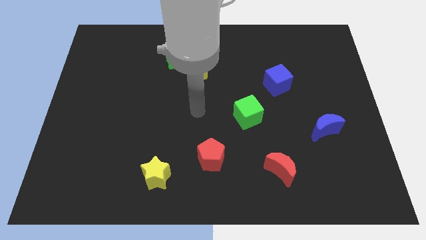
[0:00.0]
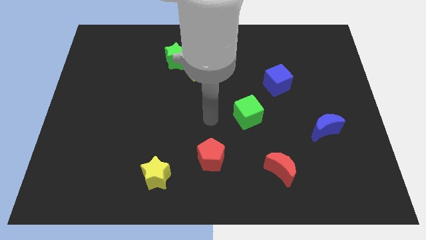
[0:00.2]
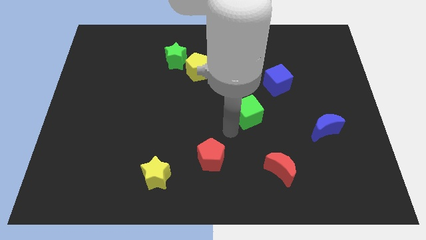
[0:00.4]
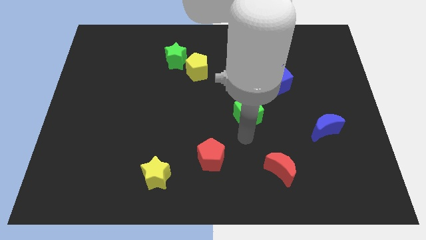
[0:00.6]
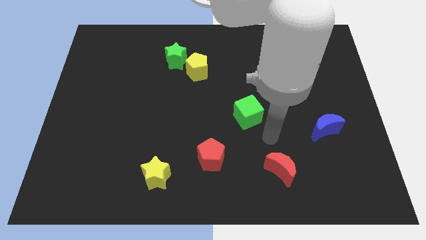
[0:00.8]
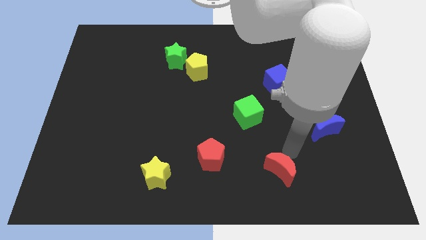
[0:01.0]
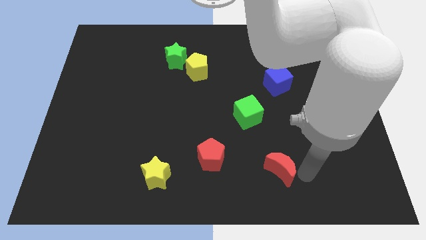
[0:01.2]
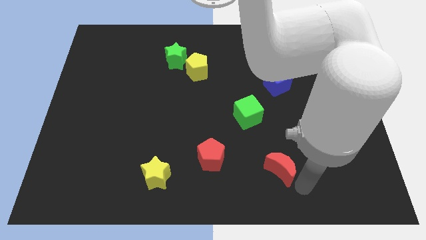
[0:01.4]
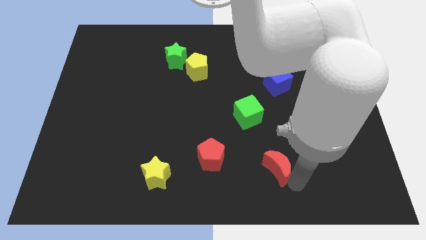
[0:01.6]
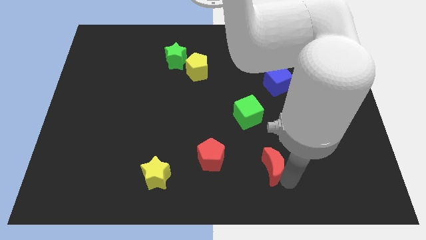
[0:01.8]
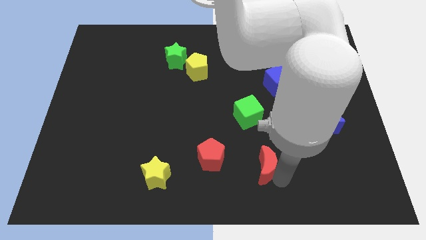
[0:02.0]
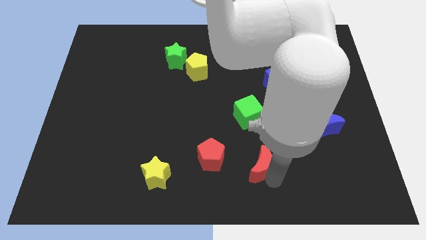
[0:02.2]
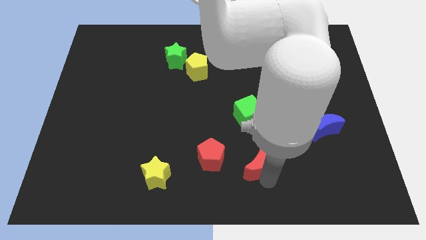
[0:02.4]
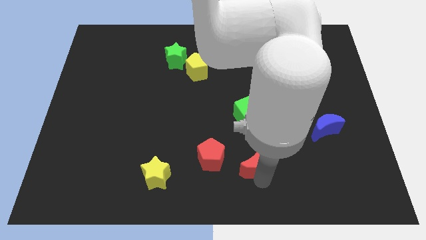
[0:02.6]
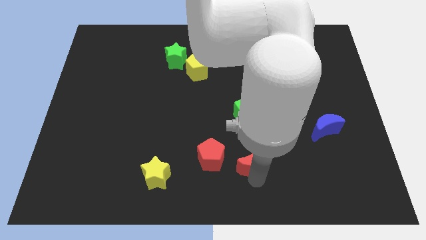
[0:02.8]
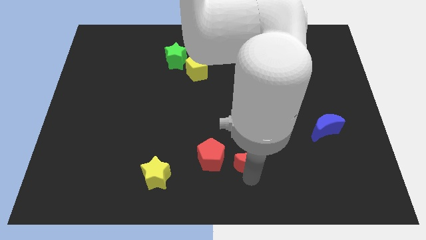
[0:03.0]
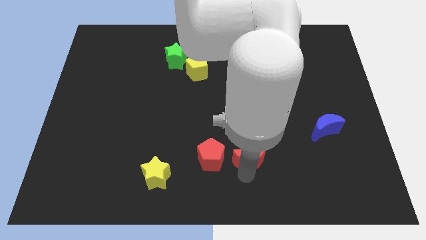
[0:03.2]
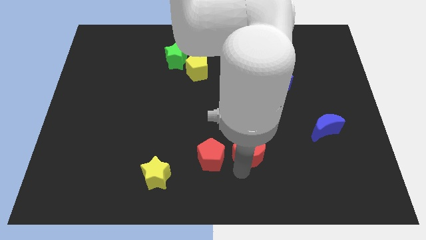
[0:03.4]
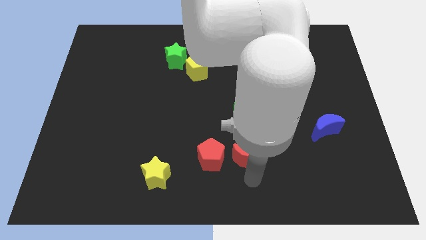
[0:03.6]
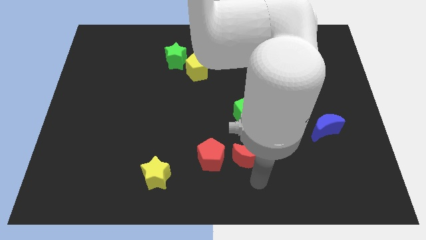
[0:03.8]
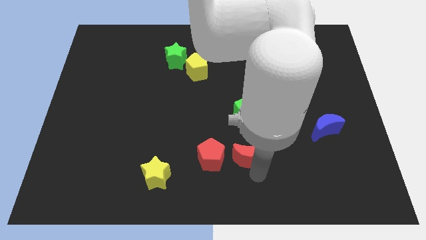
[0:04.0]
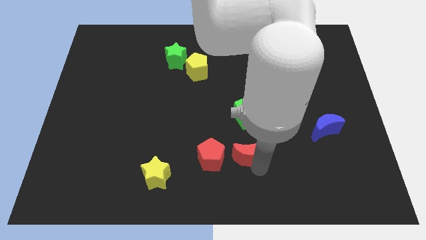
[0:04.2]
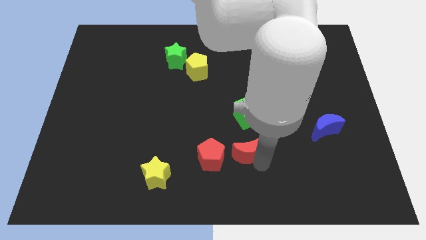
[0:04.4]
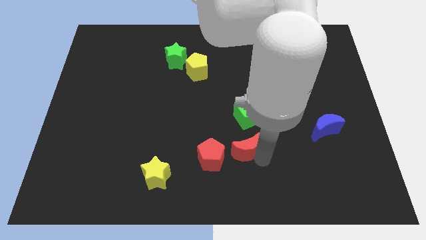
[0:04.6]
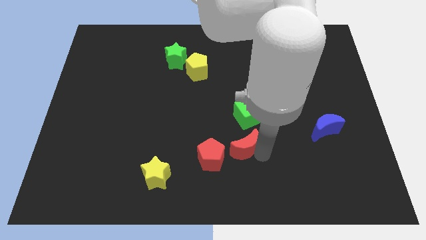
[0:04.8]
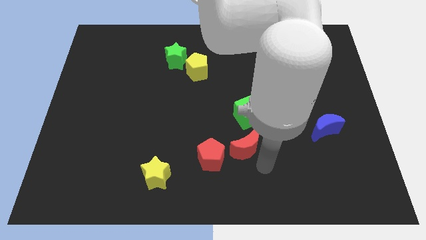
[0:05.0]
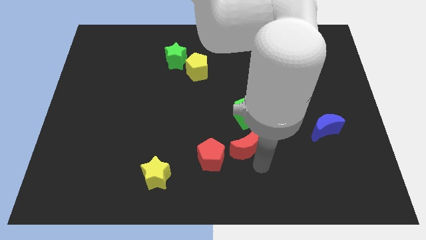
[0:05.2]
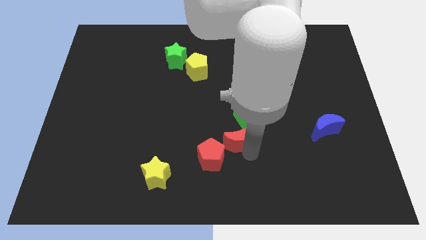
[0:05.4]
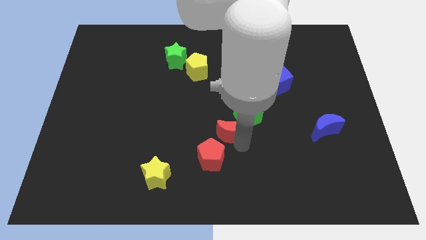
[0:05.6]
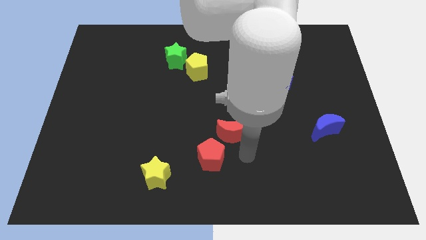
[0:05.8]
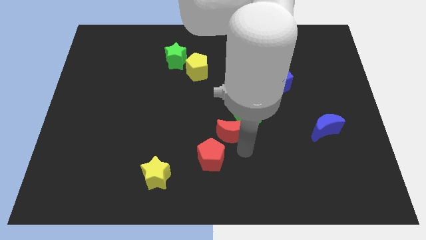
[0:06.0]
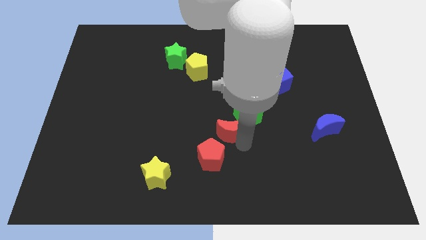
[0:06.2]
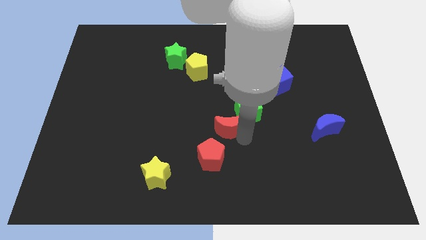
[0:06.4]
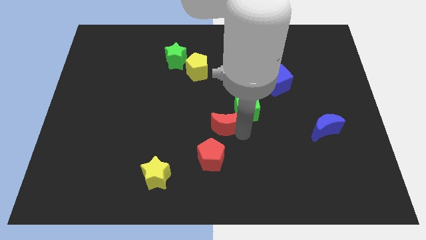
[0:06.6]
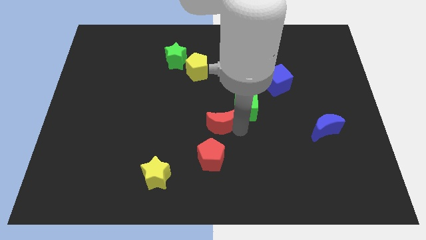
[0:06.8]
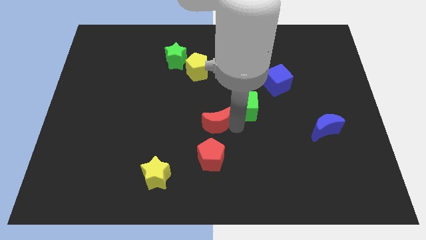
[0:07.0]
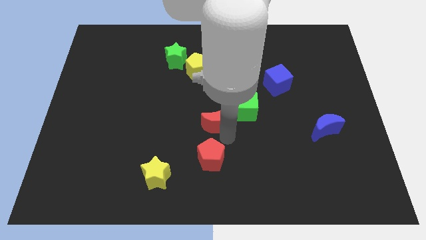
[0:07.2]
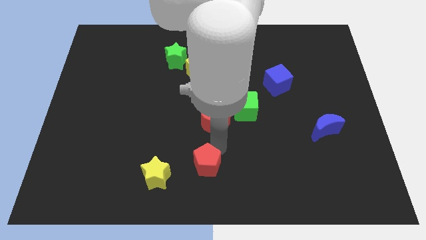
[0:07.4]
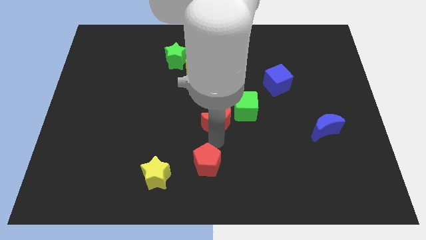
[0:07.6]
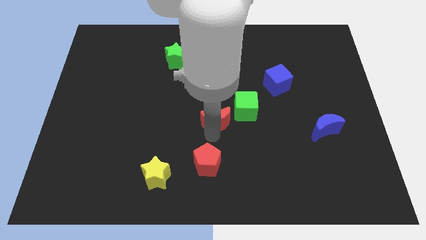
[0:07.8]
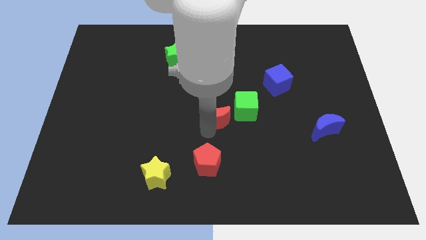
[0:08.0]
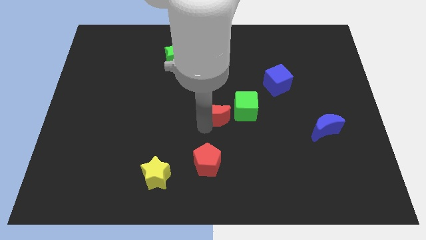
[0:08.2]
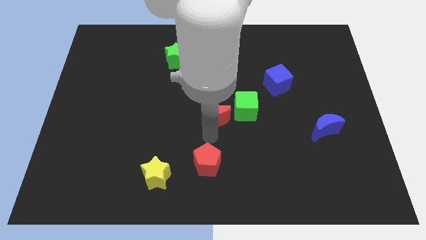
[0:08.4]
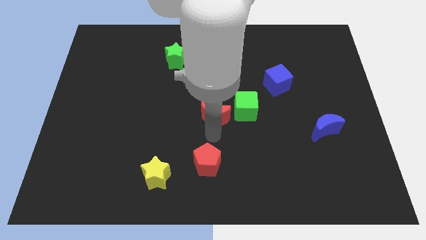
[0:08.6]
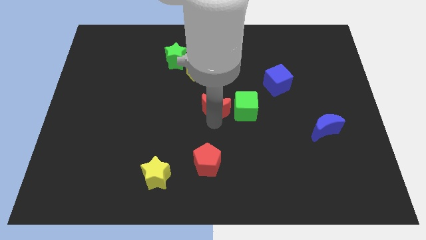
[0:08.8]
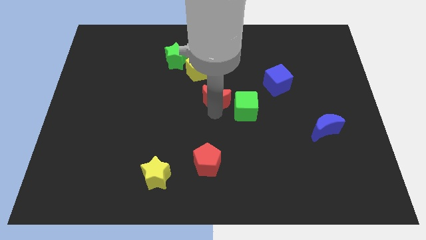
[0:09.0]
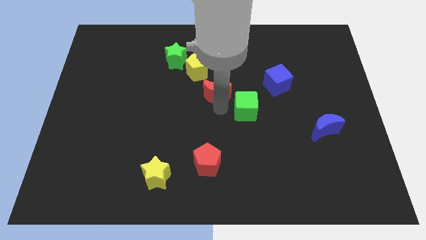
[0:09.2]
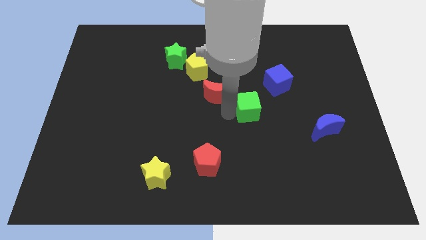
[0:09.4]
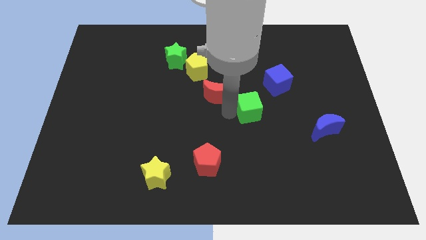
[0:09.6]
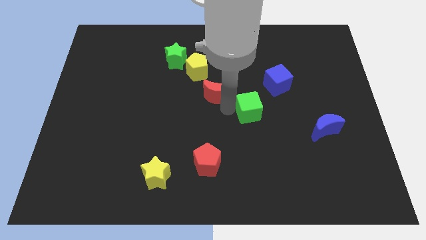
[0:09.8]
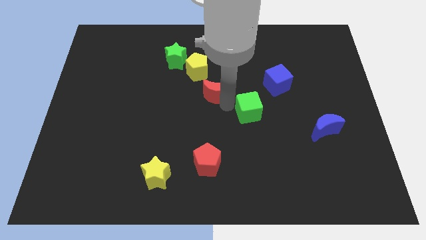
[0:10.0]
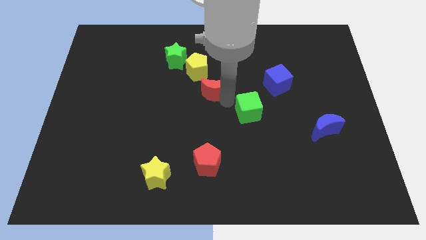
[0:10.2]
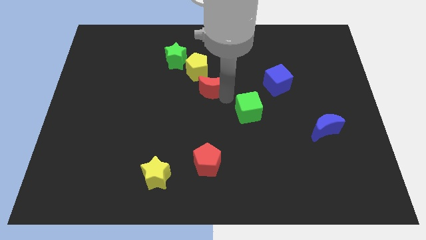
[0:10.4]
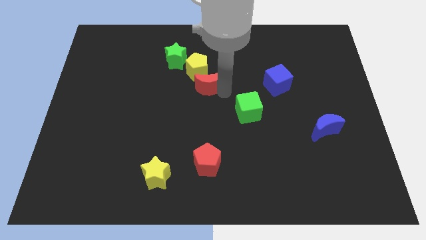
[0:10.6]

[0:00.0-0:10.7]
push the red moon to the yellow pentagon

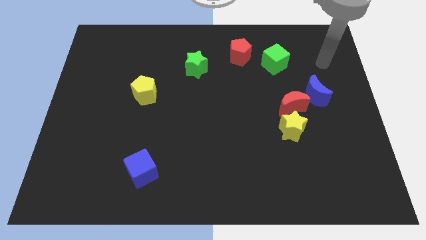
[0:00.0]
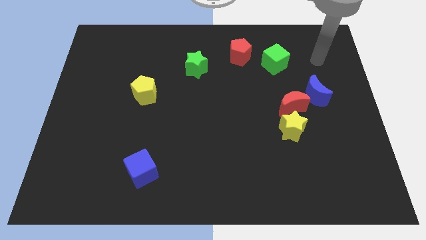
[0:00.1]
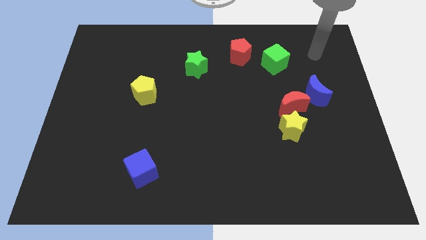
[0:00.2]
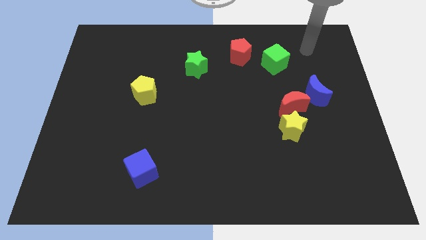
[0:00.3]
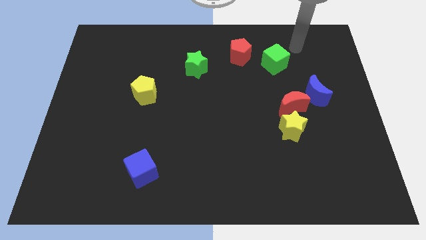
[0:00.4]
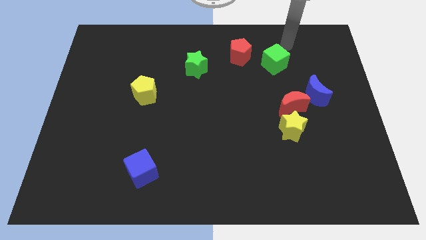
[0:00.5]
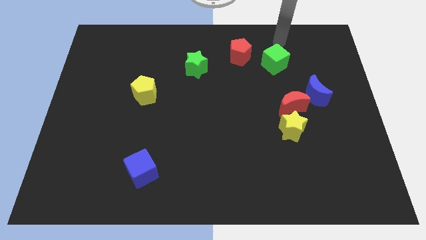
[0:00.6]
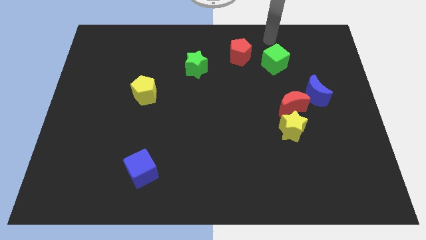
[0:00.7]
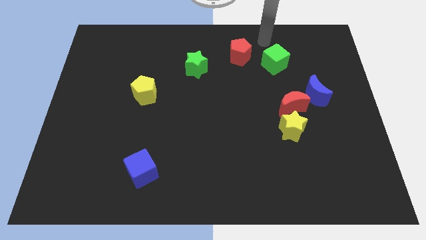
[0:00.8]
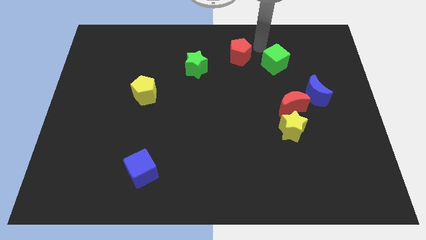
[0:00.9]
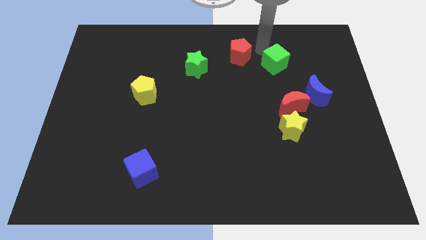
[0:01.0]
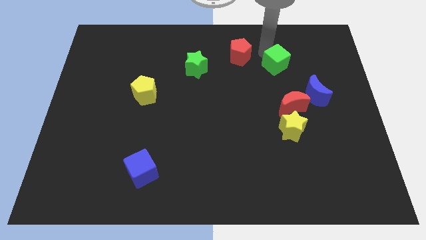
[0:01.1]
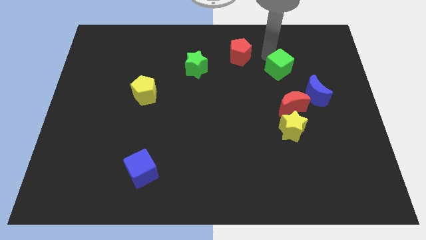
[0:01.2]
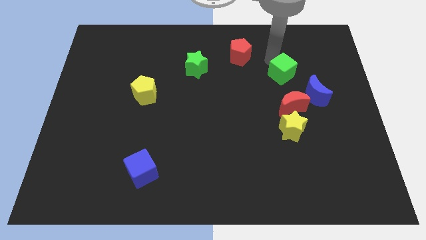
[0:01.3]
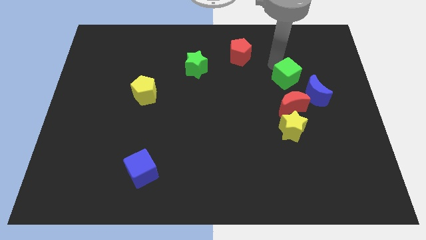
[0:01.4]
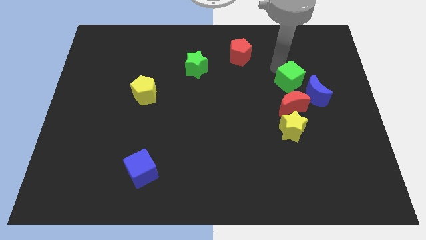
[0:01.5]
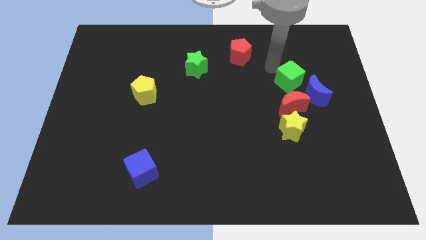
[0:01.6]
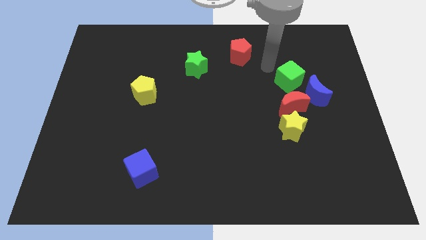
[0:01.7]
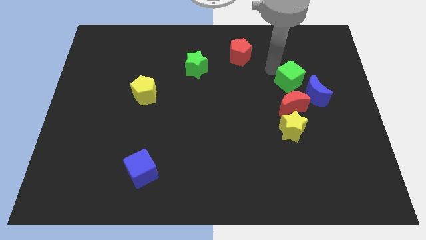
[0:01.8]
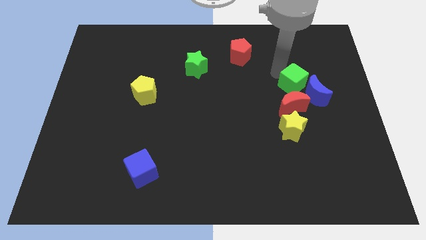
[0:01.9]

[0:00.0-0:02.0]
put the green cube towards the blue moon
